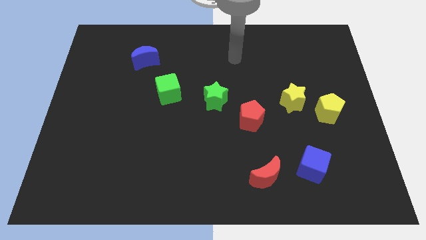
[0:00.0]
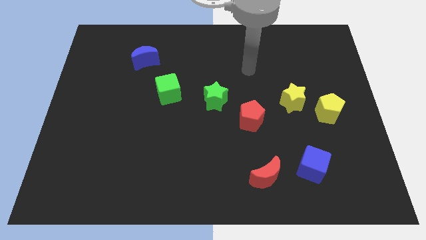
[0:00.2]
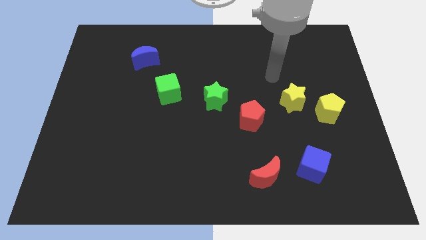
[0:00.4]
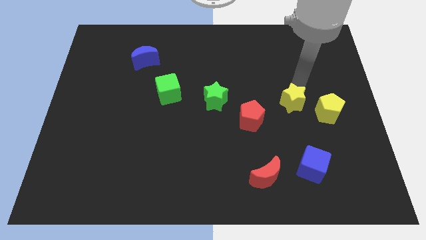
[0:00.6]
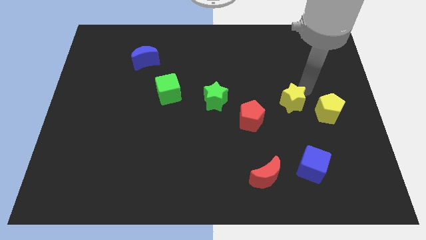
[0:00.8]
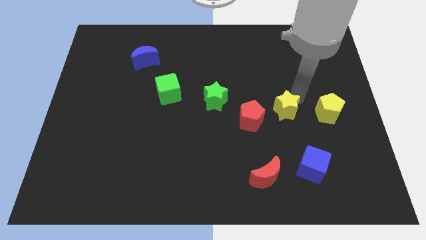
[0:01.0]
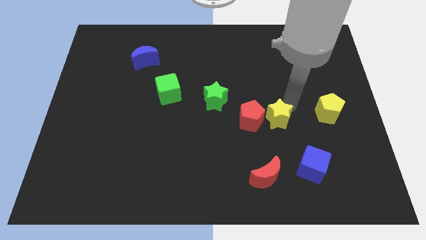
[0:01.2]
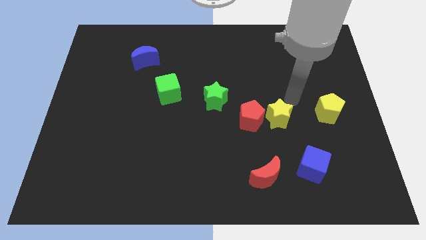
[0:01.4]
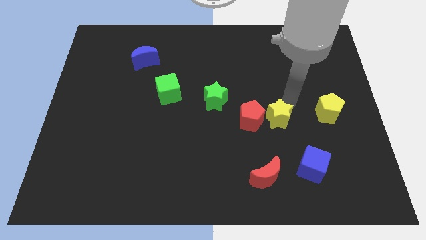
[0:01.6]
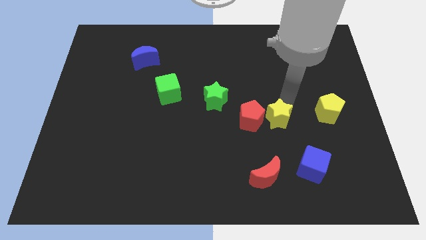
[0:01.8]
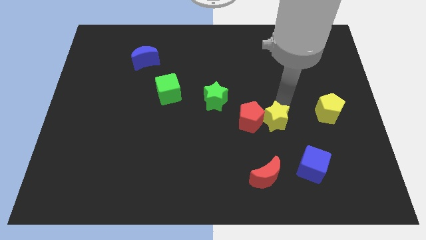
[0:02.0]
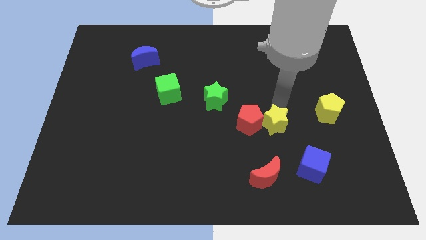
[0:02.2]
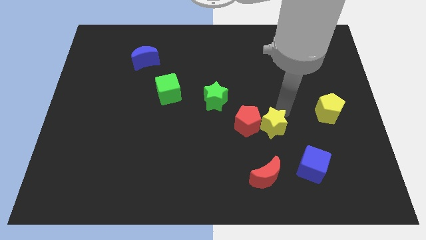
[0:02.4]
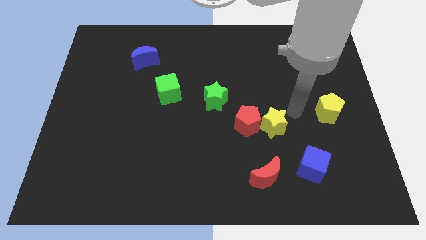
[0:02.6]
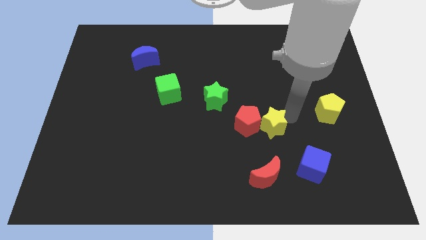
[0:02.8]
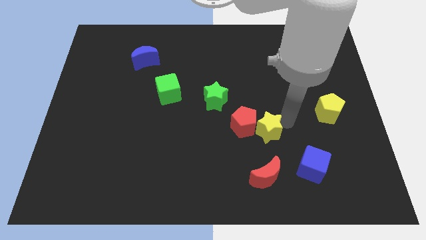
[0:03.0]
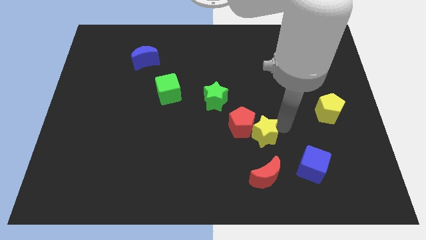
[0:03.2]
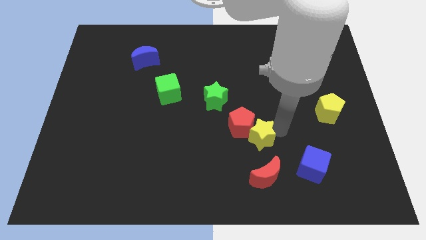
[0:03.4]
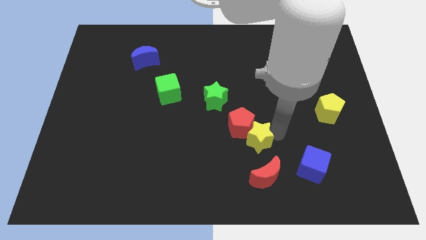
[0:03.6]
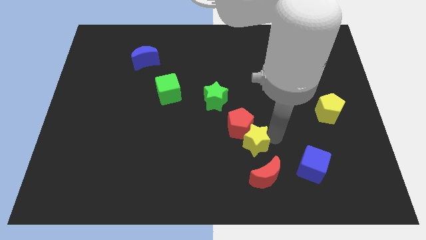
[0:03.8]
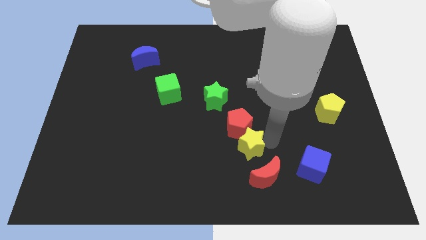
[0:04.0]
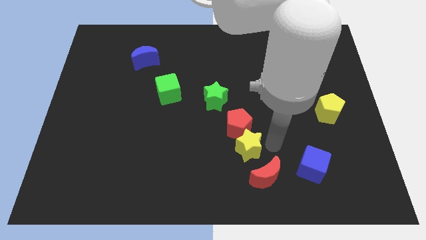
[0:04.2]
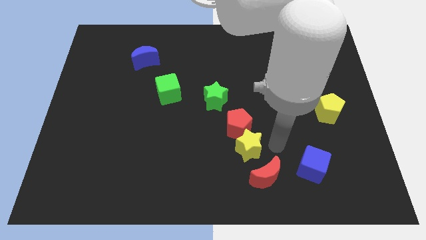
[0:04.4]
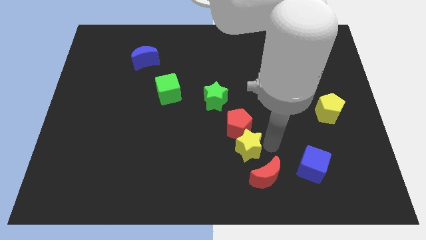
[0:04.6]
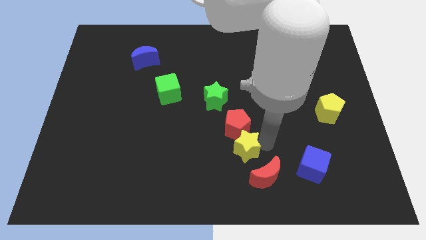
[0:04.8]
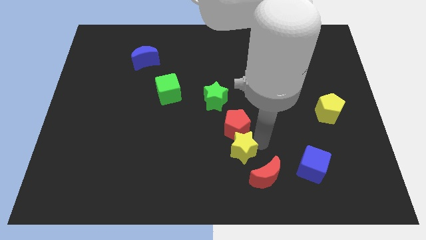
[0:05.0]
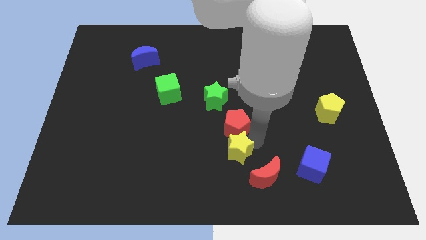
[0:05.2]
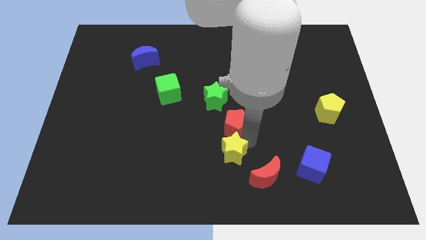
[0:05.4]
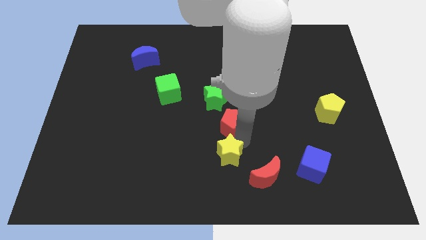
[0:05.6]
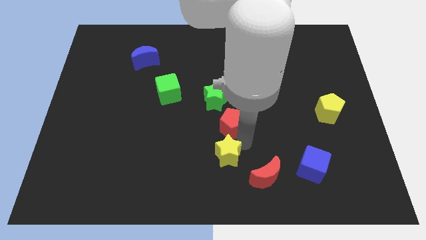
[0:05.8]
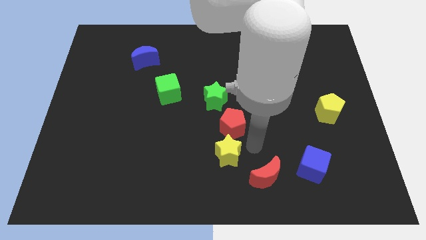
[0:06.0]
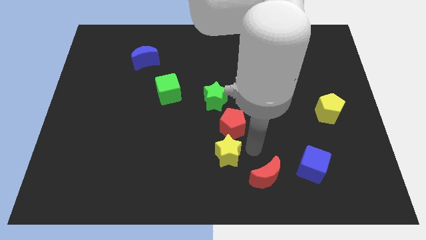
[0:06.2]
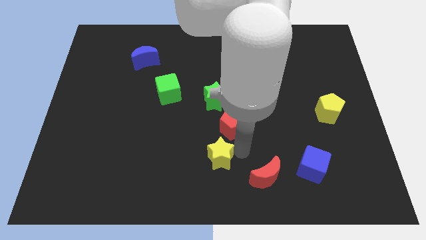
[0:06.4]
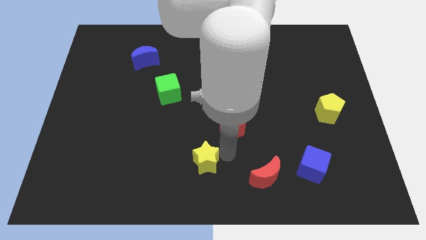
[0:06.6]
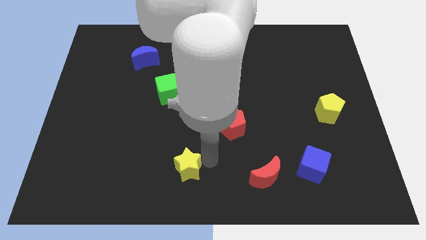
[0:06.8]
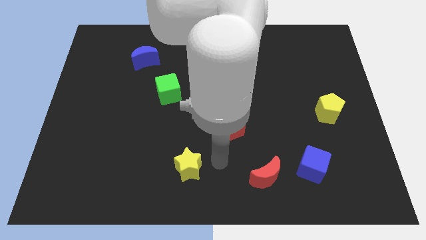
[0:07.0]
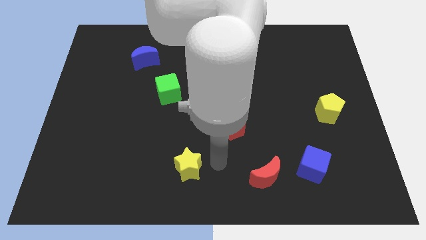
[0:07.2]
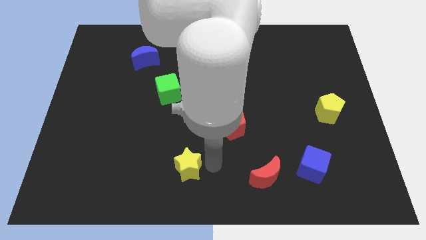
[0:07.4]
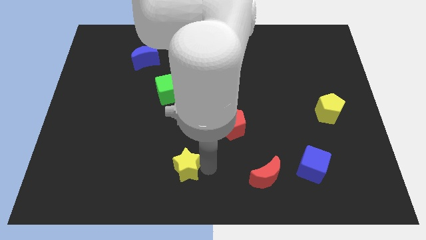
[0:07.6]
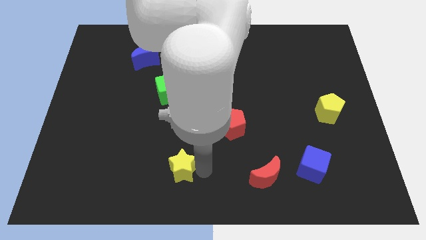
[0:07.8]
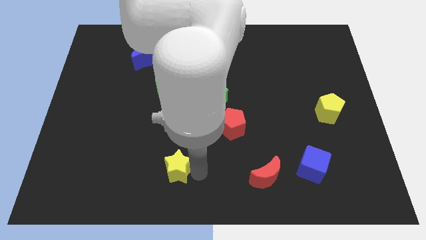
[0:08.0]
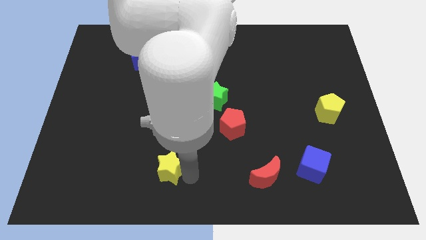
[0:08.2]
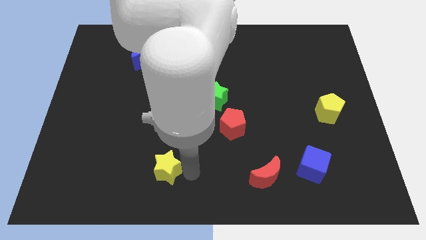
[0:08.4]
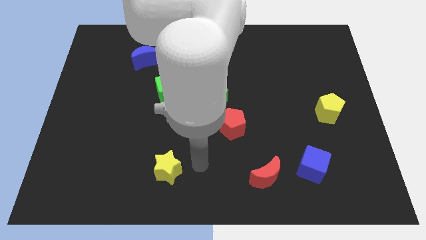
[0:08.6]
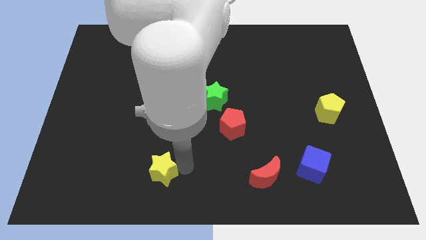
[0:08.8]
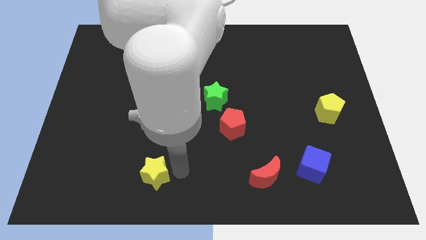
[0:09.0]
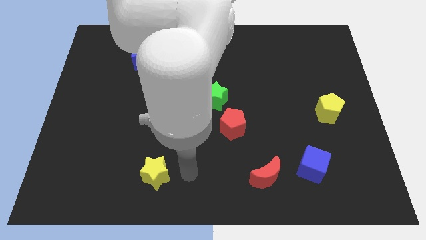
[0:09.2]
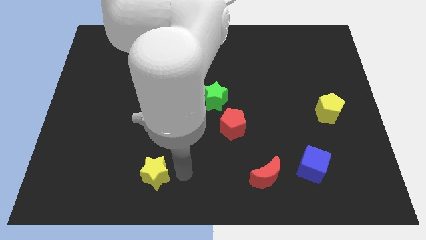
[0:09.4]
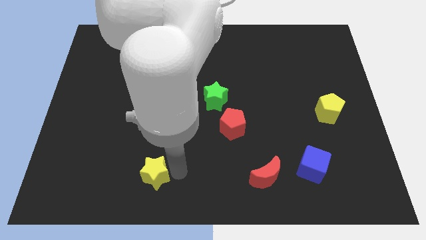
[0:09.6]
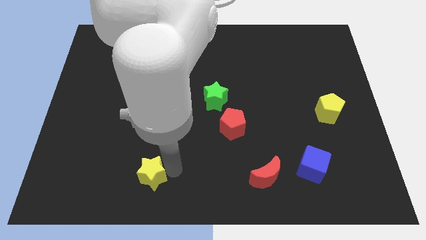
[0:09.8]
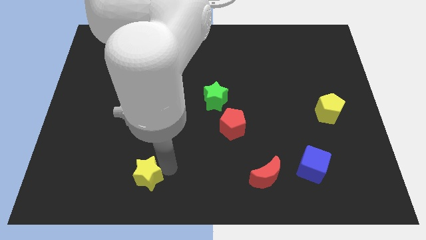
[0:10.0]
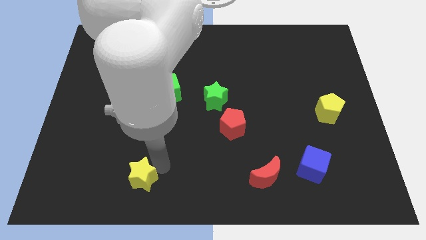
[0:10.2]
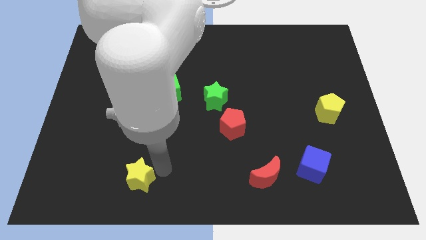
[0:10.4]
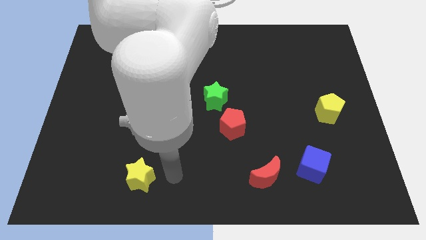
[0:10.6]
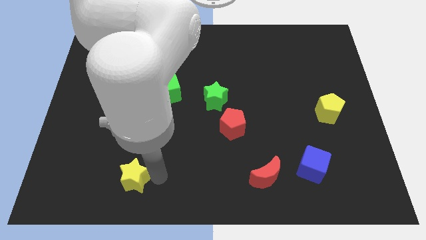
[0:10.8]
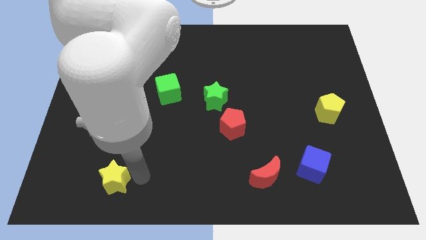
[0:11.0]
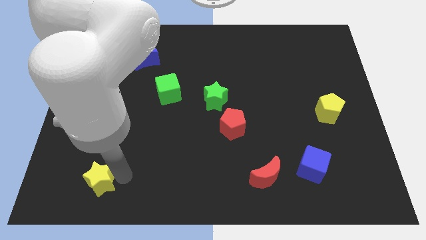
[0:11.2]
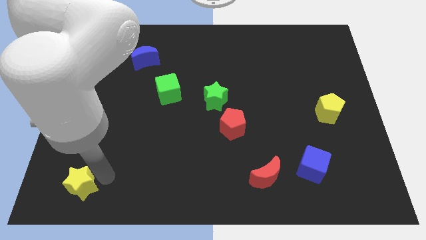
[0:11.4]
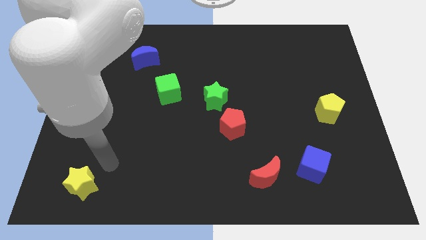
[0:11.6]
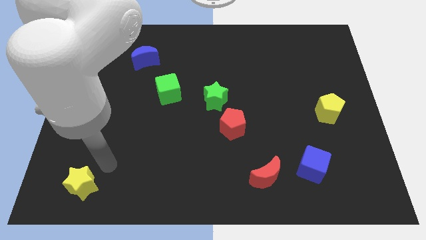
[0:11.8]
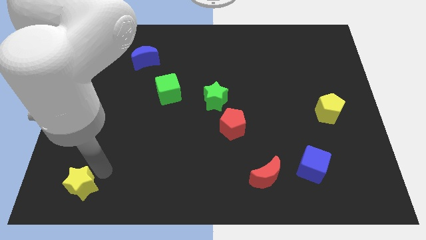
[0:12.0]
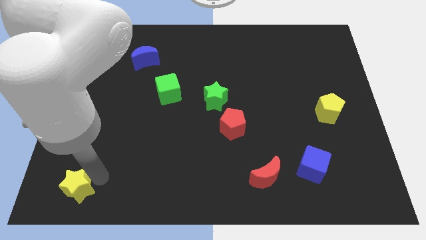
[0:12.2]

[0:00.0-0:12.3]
move the yellow star to the bottom left corner

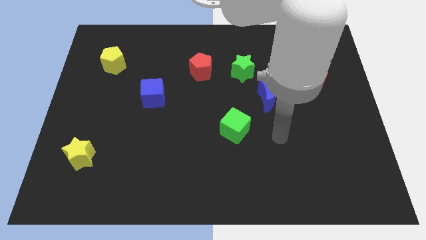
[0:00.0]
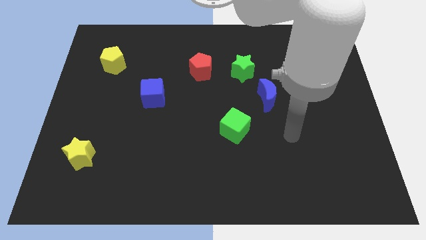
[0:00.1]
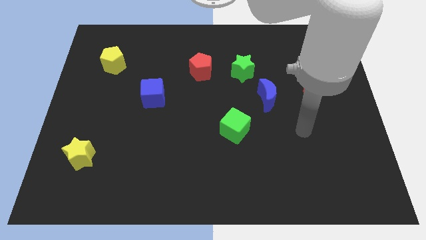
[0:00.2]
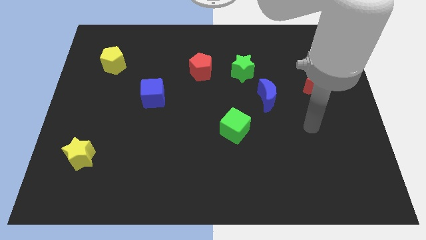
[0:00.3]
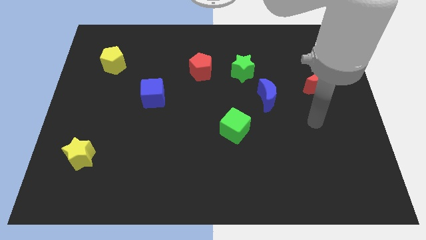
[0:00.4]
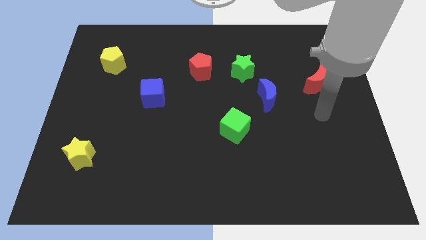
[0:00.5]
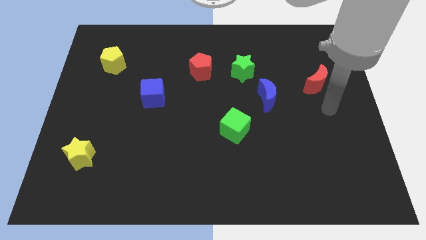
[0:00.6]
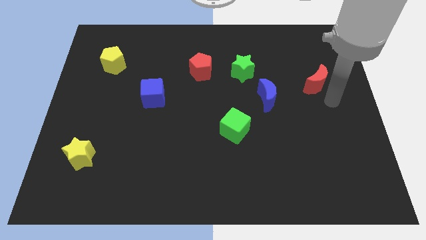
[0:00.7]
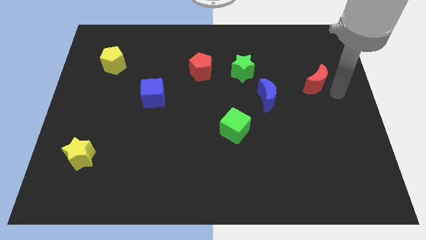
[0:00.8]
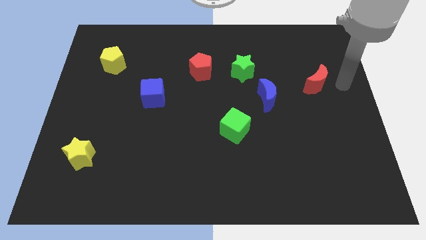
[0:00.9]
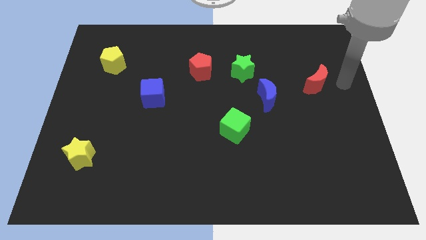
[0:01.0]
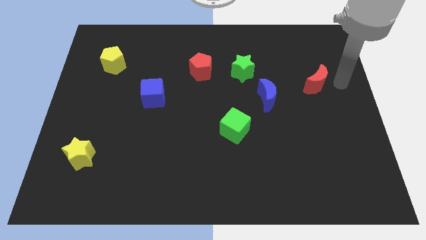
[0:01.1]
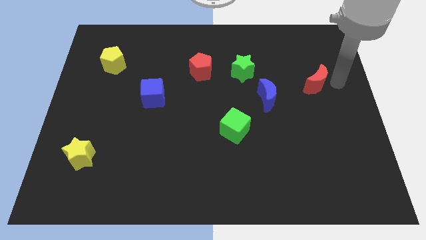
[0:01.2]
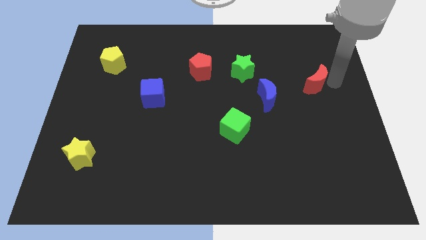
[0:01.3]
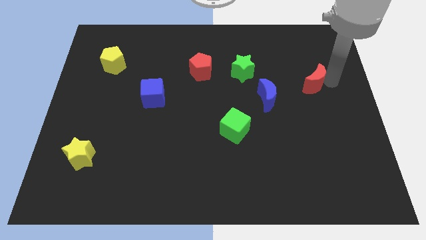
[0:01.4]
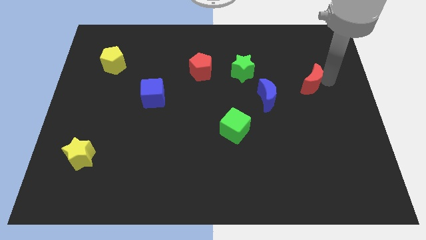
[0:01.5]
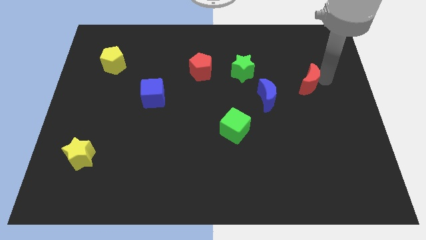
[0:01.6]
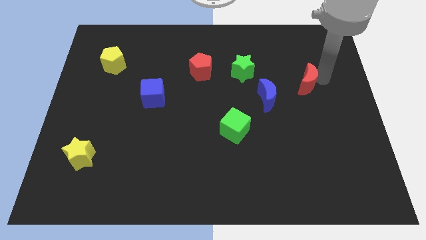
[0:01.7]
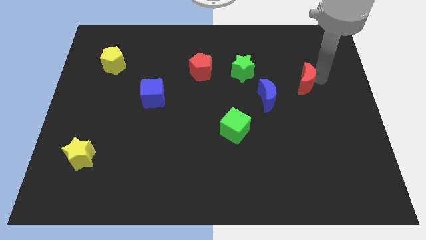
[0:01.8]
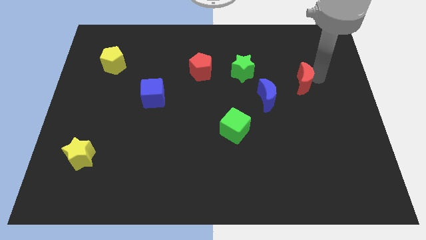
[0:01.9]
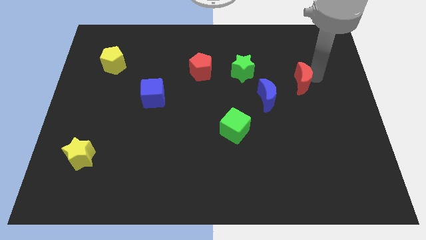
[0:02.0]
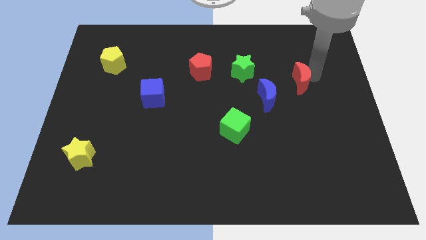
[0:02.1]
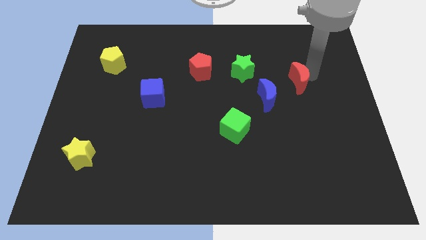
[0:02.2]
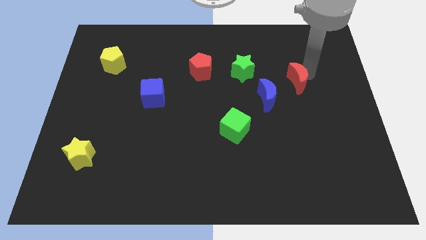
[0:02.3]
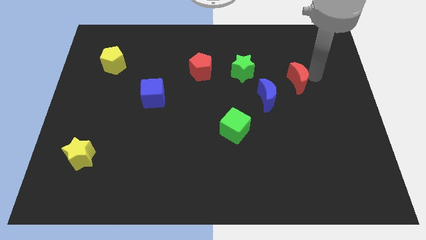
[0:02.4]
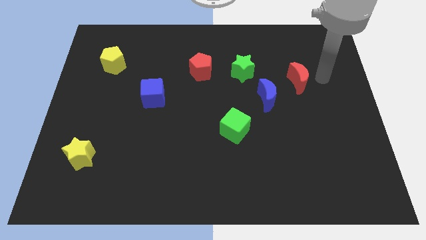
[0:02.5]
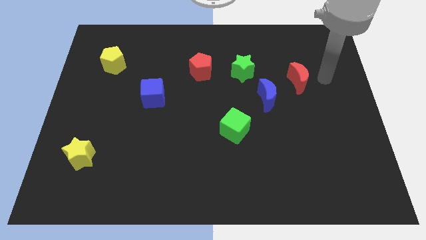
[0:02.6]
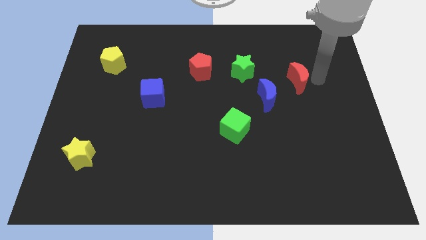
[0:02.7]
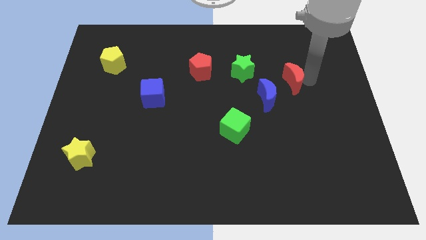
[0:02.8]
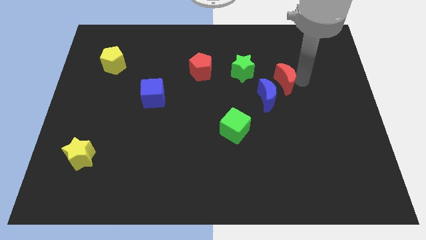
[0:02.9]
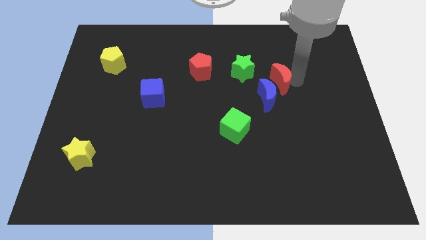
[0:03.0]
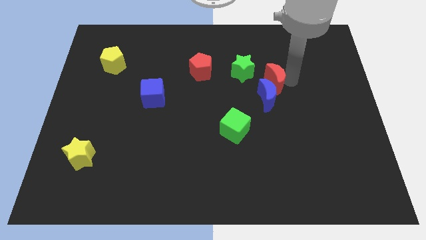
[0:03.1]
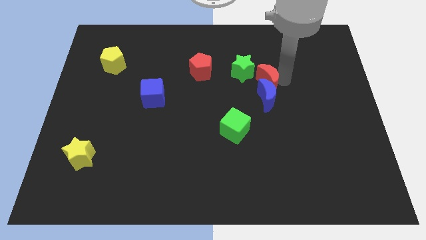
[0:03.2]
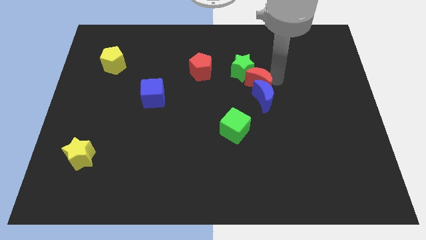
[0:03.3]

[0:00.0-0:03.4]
slide the red moon to the middle of the board
